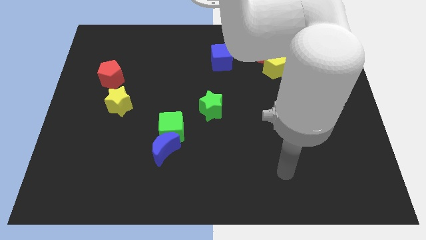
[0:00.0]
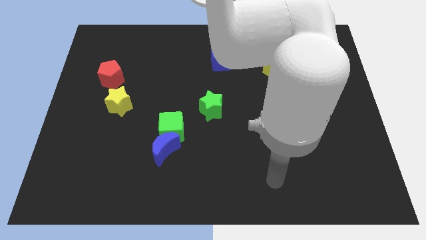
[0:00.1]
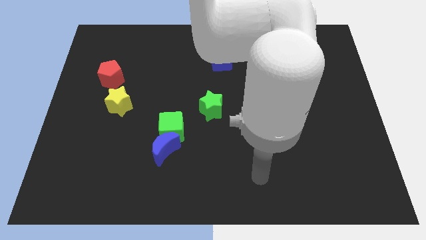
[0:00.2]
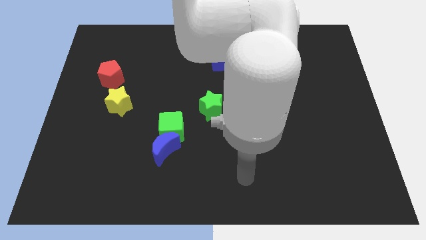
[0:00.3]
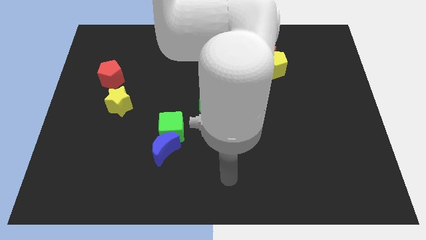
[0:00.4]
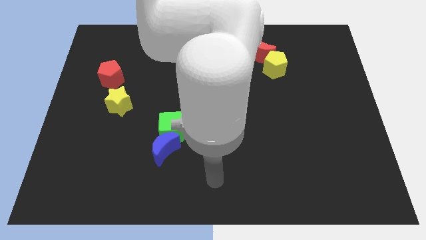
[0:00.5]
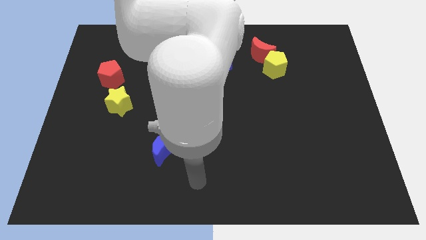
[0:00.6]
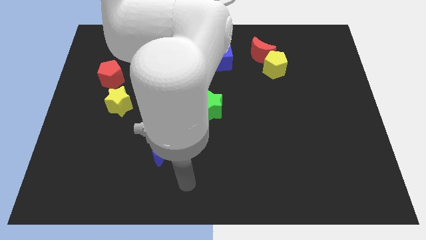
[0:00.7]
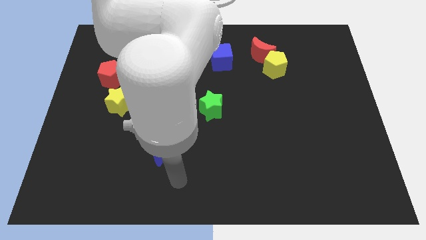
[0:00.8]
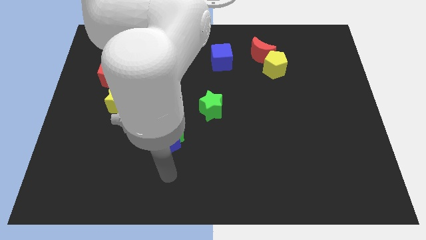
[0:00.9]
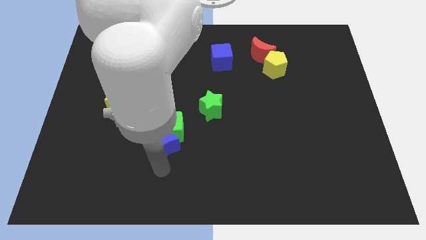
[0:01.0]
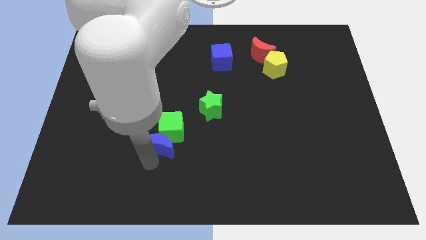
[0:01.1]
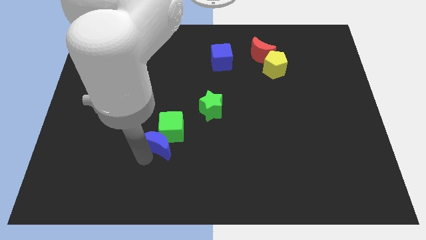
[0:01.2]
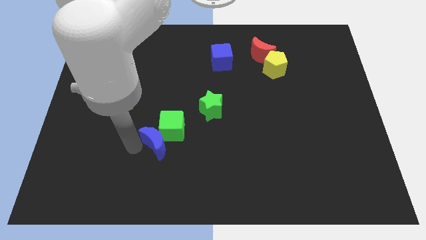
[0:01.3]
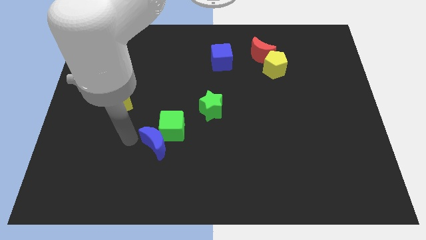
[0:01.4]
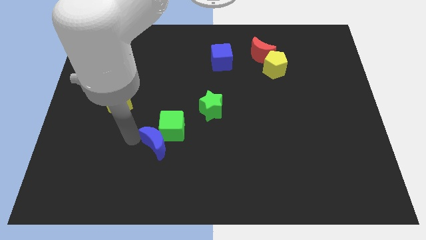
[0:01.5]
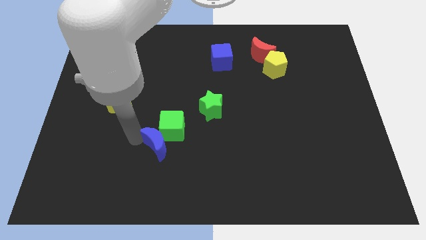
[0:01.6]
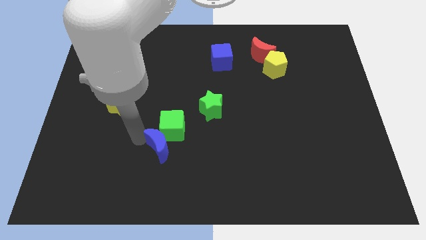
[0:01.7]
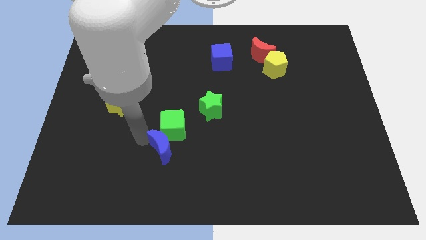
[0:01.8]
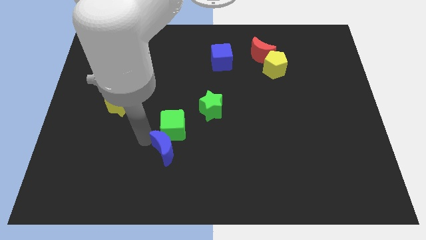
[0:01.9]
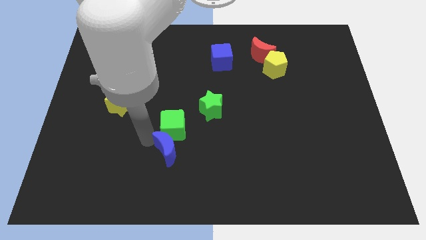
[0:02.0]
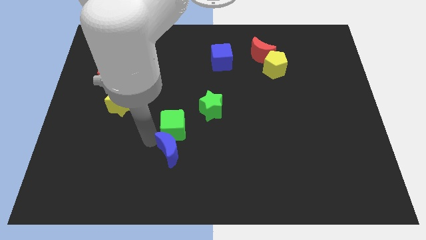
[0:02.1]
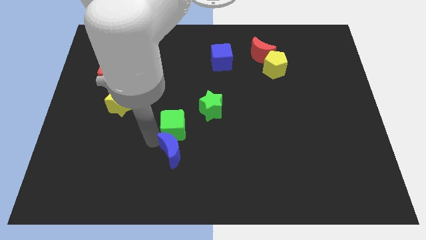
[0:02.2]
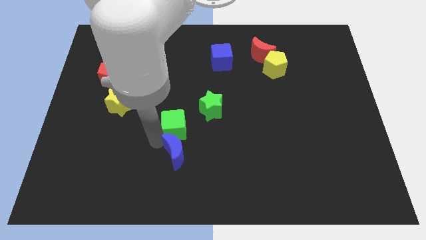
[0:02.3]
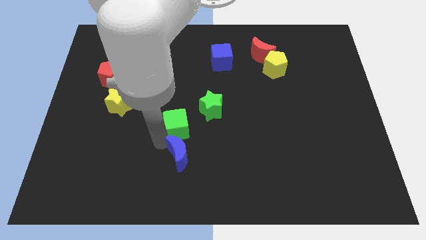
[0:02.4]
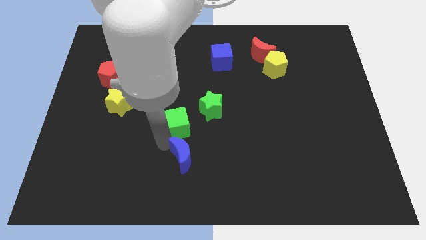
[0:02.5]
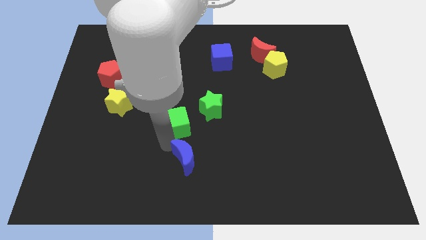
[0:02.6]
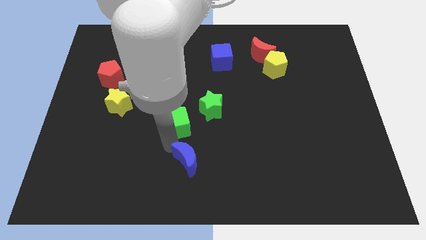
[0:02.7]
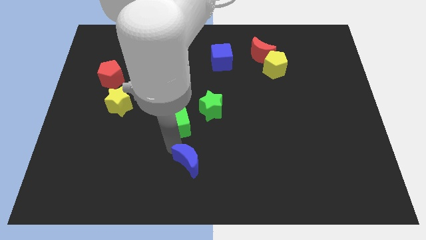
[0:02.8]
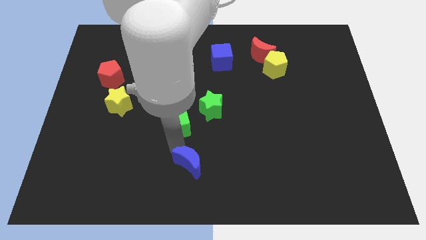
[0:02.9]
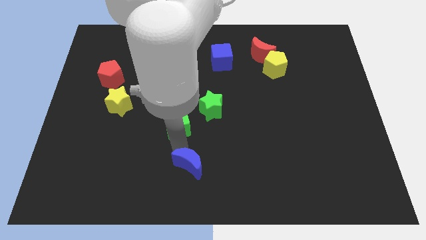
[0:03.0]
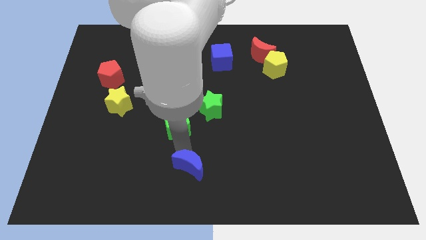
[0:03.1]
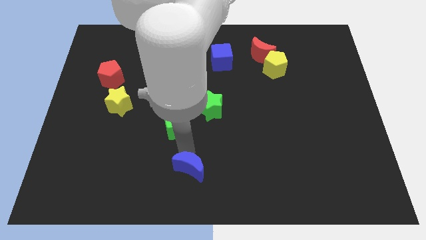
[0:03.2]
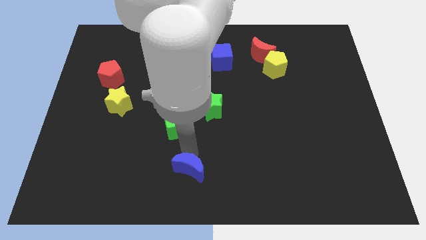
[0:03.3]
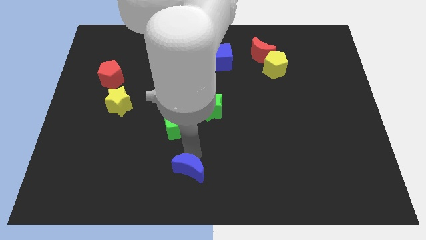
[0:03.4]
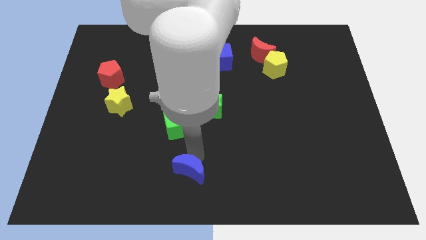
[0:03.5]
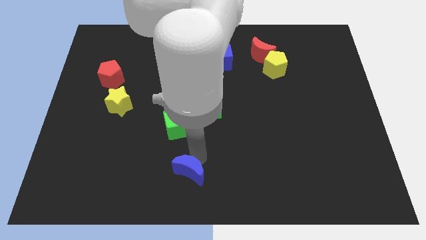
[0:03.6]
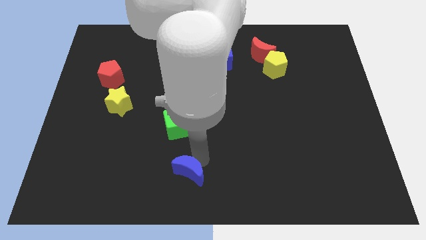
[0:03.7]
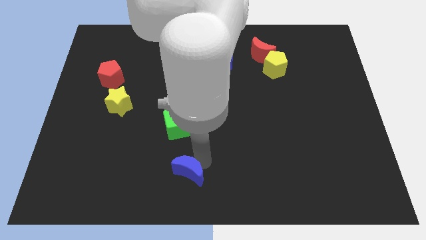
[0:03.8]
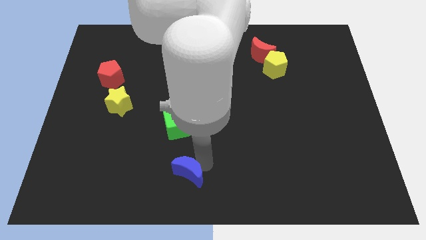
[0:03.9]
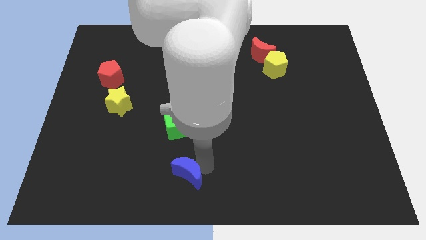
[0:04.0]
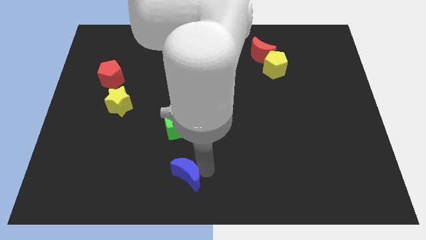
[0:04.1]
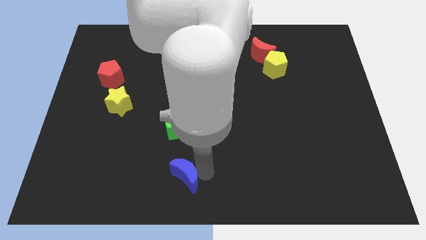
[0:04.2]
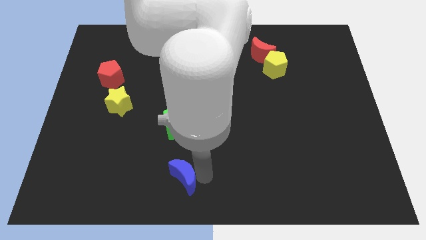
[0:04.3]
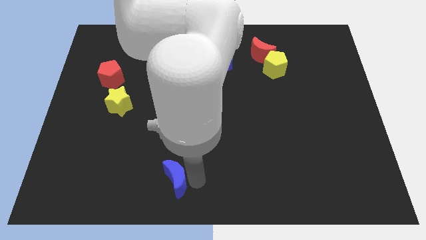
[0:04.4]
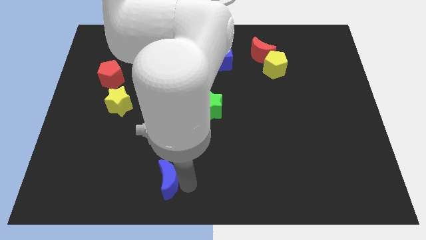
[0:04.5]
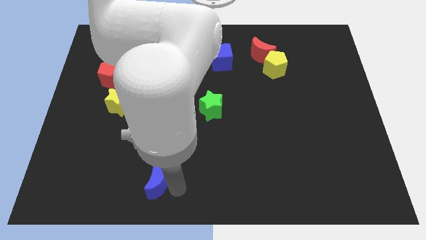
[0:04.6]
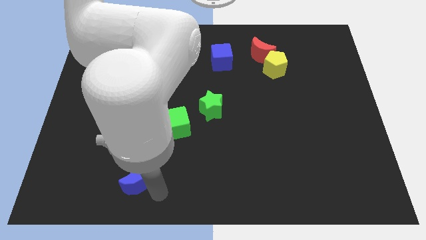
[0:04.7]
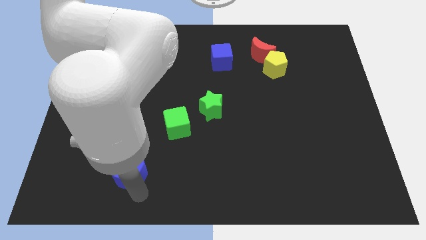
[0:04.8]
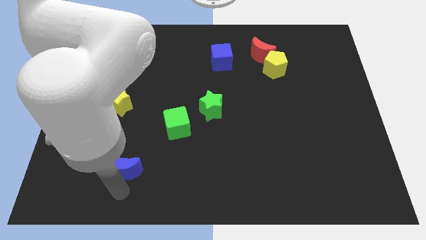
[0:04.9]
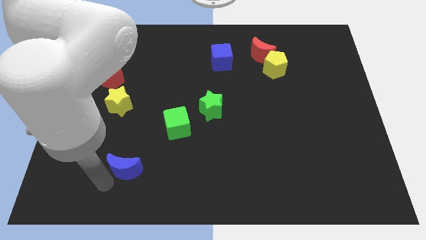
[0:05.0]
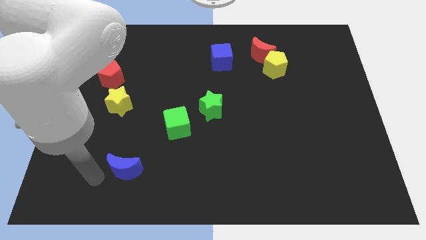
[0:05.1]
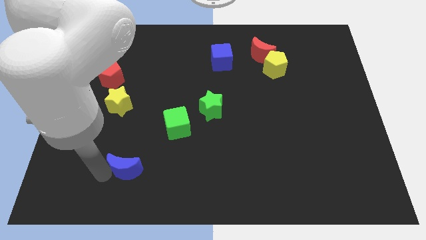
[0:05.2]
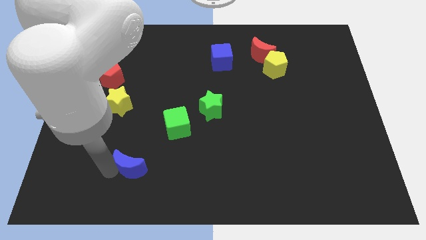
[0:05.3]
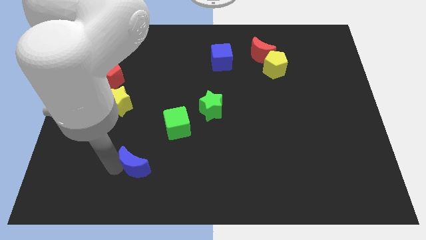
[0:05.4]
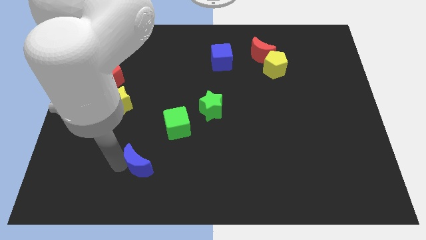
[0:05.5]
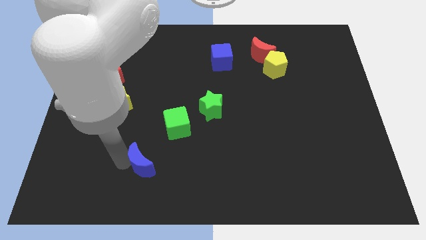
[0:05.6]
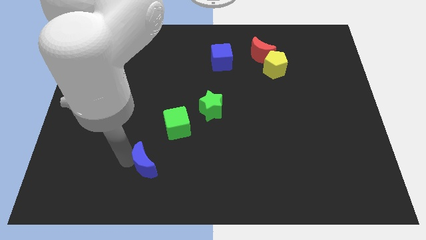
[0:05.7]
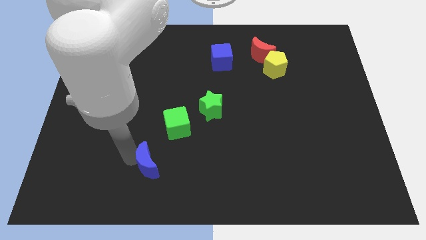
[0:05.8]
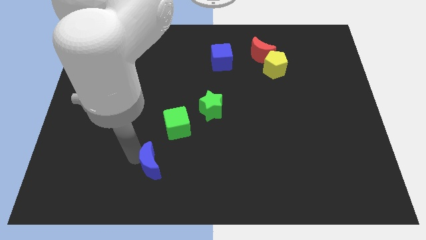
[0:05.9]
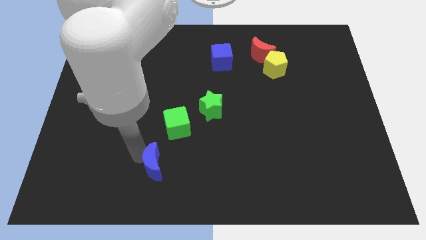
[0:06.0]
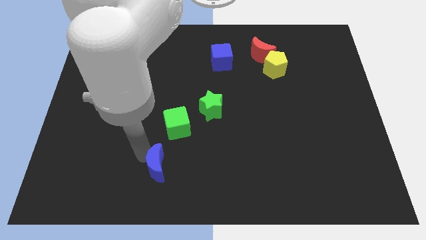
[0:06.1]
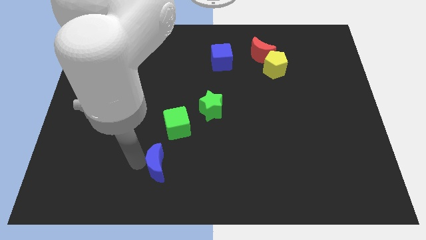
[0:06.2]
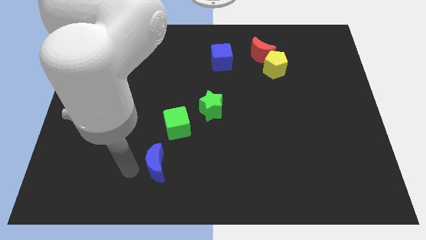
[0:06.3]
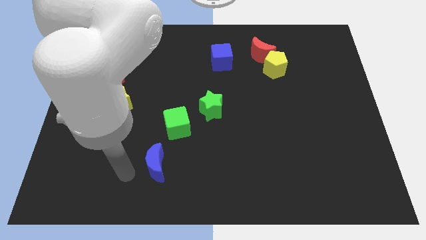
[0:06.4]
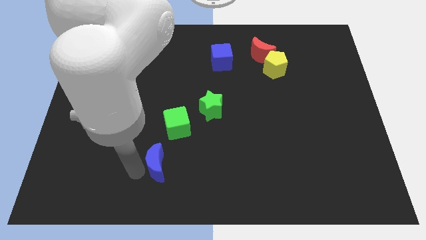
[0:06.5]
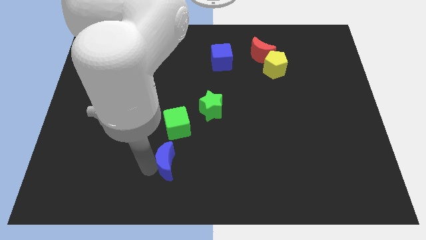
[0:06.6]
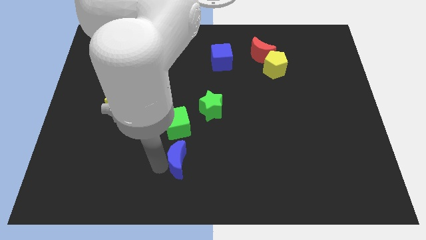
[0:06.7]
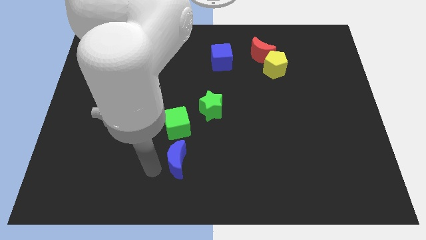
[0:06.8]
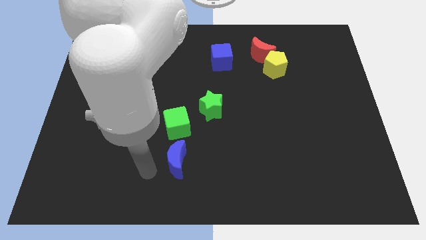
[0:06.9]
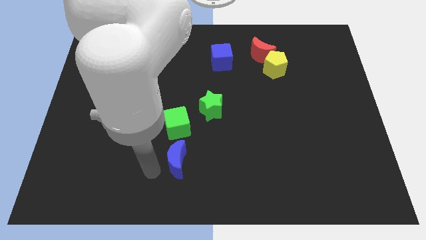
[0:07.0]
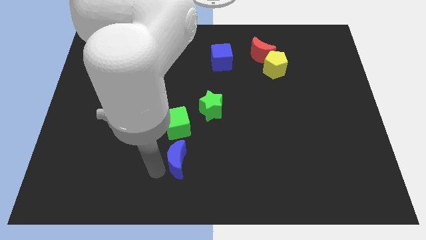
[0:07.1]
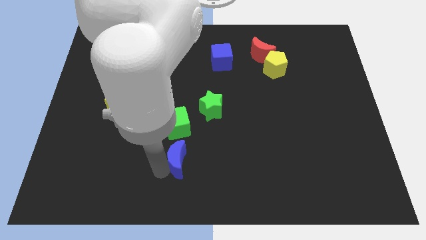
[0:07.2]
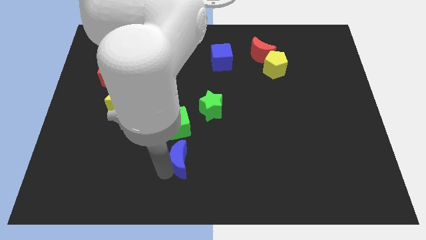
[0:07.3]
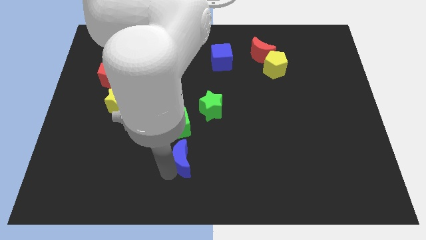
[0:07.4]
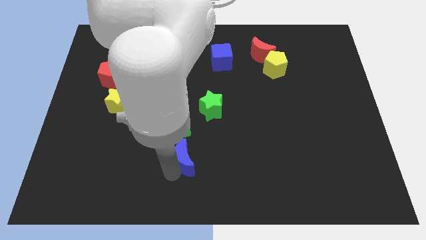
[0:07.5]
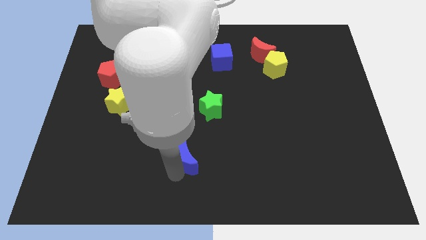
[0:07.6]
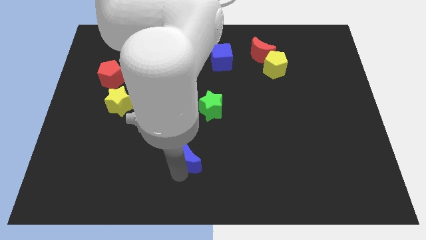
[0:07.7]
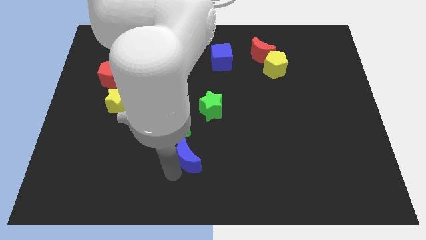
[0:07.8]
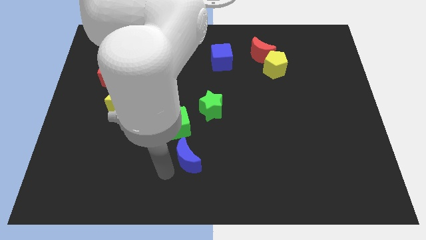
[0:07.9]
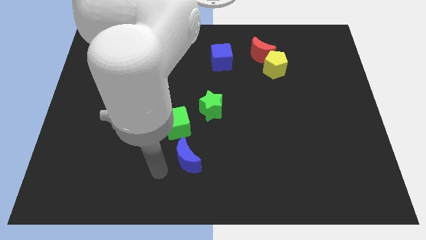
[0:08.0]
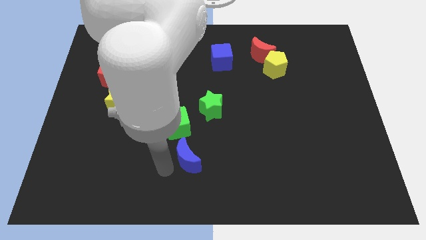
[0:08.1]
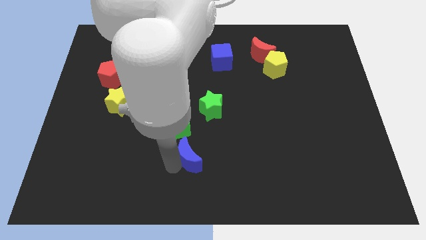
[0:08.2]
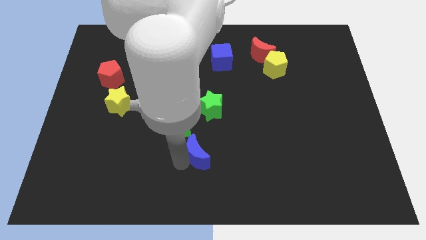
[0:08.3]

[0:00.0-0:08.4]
push the blue moon to the right a little bit
